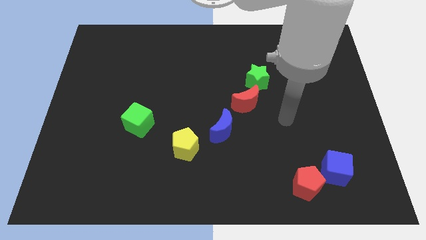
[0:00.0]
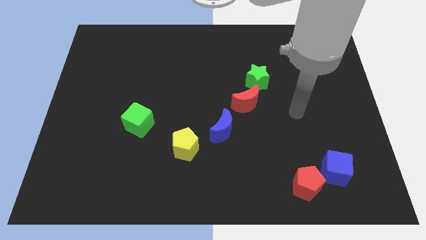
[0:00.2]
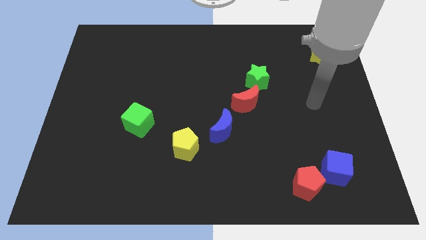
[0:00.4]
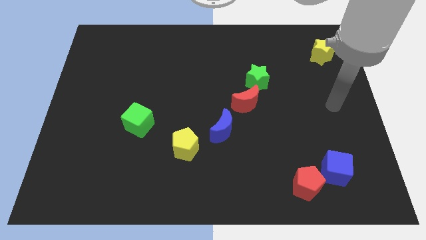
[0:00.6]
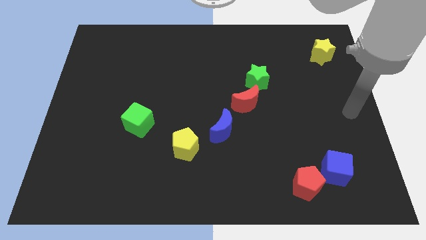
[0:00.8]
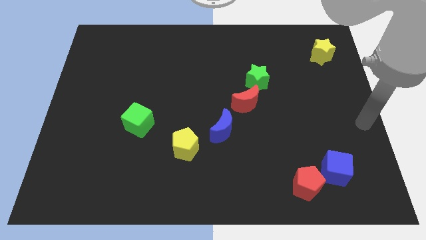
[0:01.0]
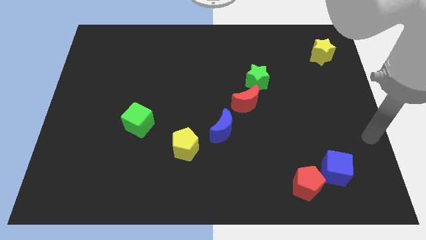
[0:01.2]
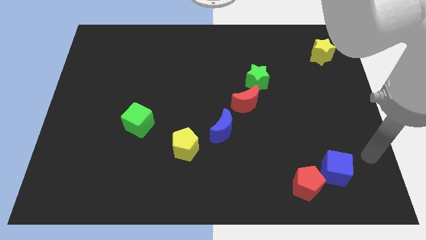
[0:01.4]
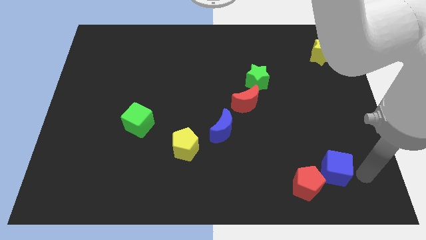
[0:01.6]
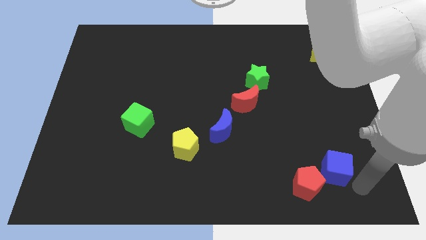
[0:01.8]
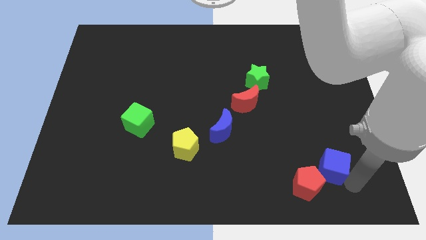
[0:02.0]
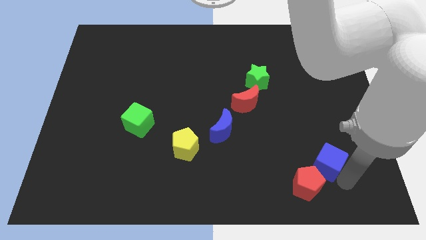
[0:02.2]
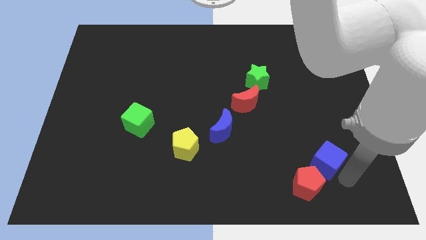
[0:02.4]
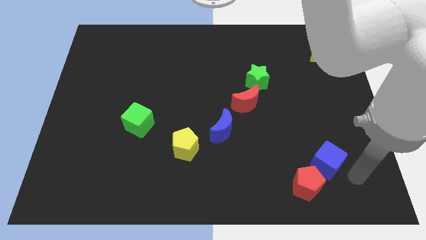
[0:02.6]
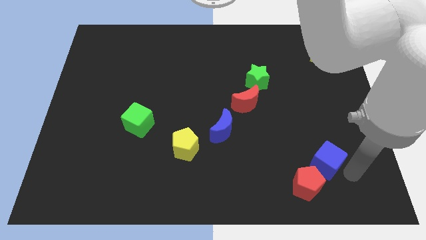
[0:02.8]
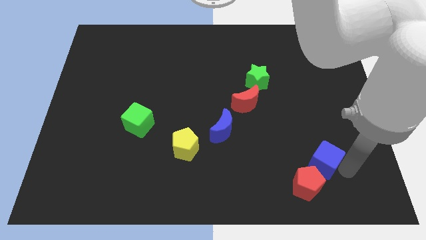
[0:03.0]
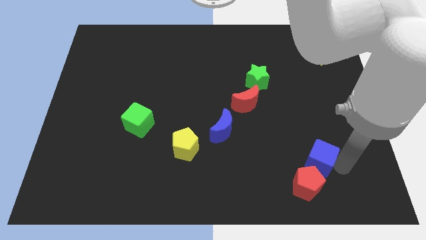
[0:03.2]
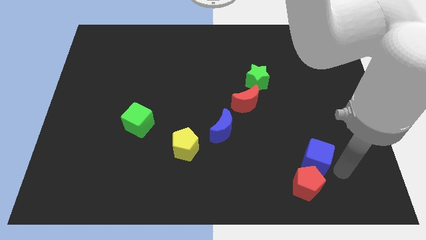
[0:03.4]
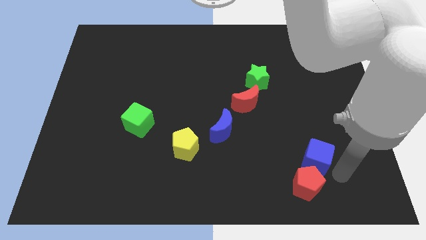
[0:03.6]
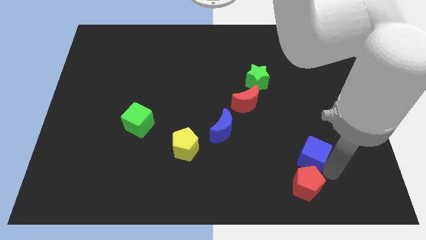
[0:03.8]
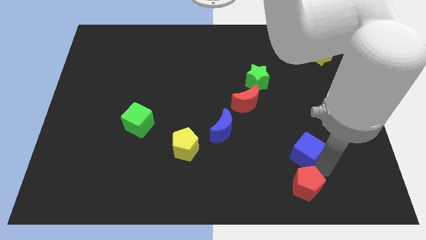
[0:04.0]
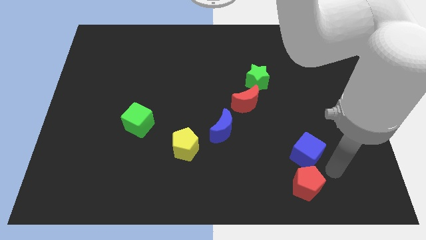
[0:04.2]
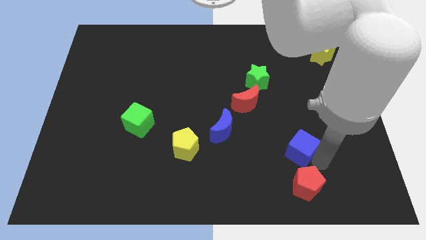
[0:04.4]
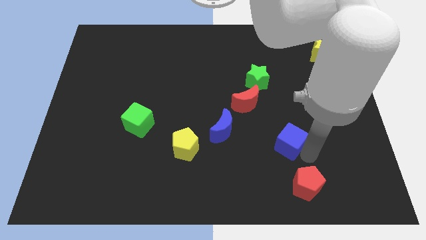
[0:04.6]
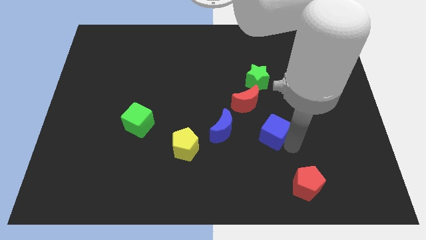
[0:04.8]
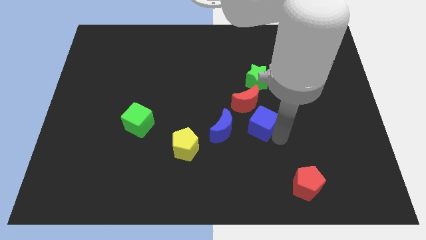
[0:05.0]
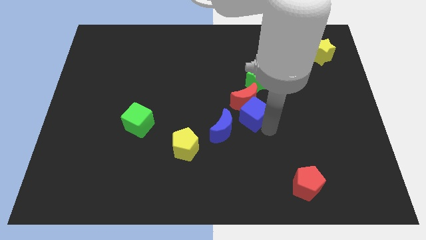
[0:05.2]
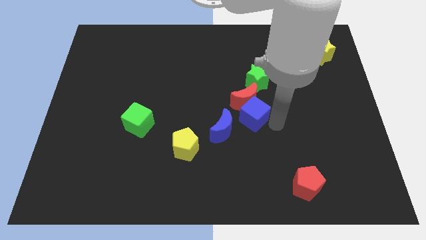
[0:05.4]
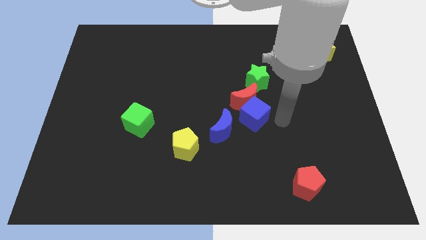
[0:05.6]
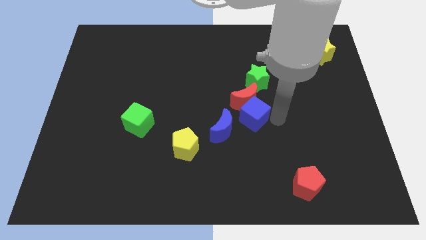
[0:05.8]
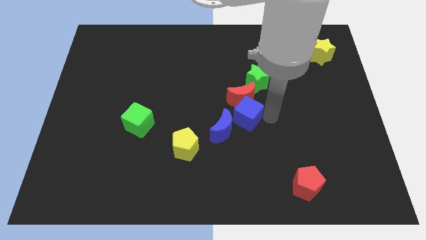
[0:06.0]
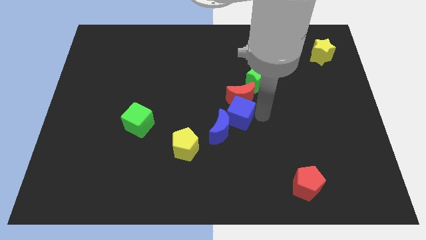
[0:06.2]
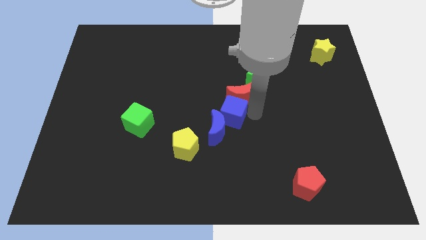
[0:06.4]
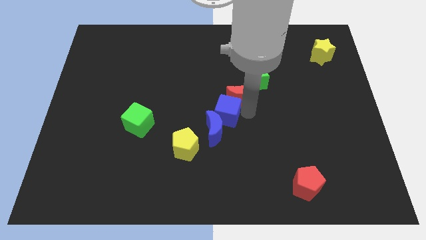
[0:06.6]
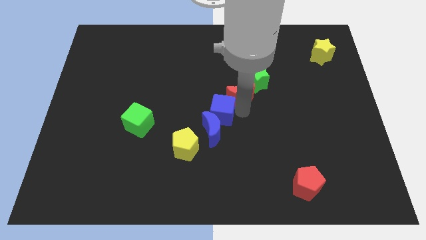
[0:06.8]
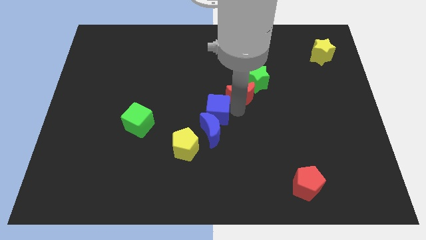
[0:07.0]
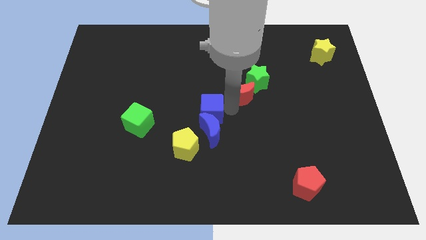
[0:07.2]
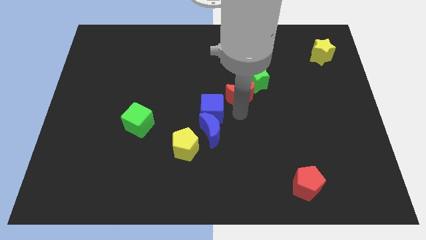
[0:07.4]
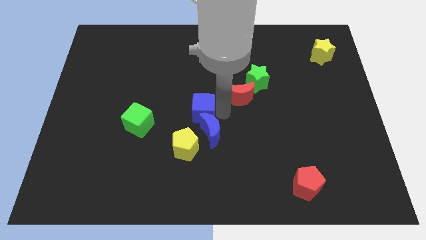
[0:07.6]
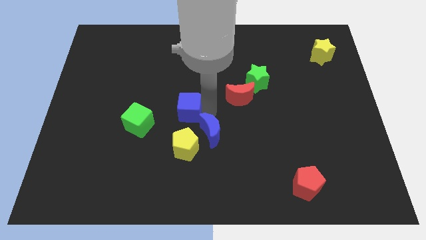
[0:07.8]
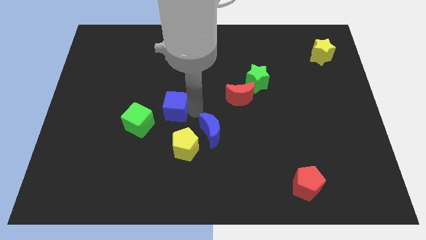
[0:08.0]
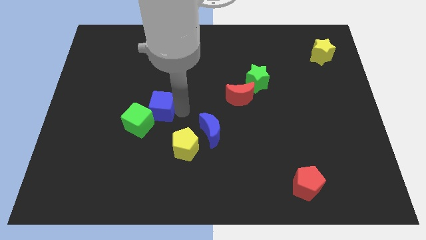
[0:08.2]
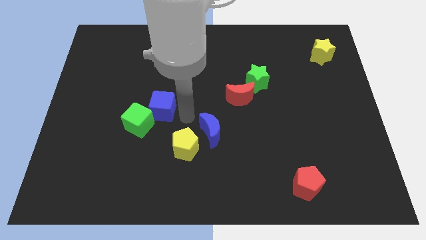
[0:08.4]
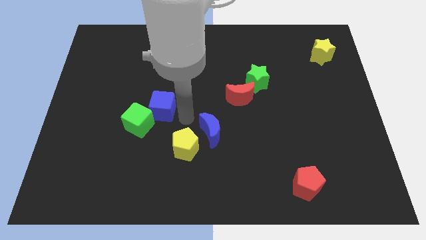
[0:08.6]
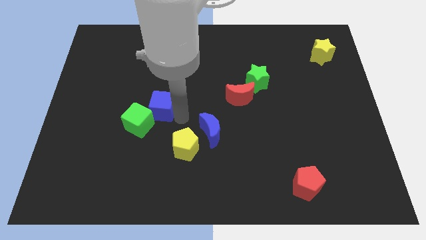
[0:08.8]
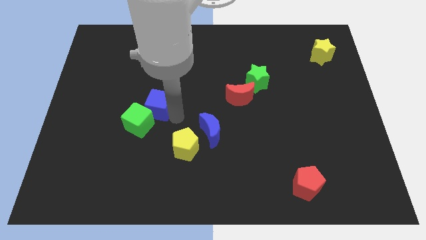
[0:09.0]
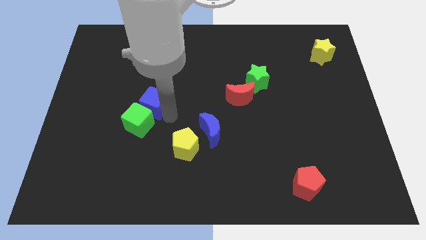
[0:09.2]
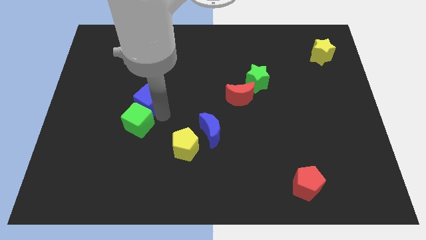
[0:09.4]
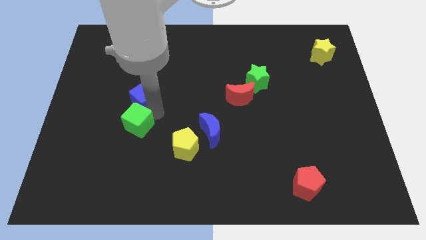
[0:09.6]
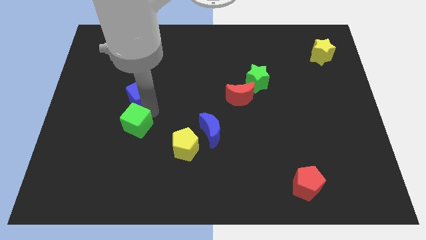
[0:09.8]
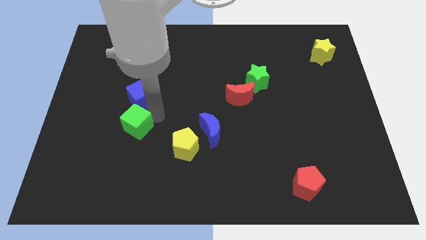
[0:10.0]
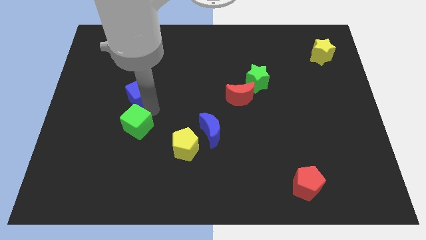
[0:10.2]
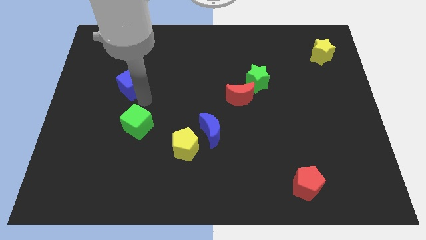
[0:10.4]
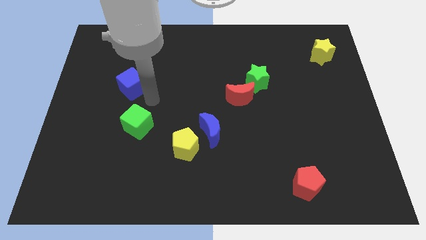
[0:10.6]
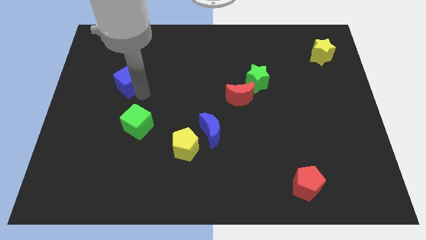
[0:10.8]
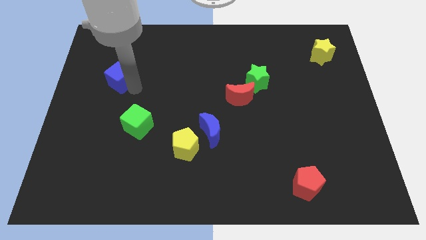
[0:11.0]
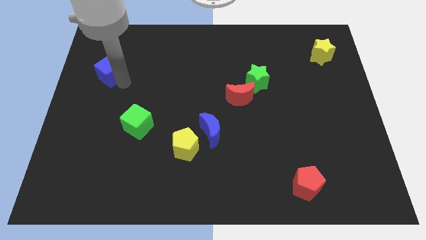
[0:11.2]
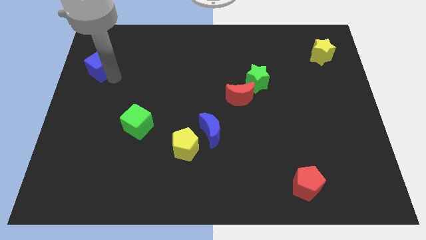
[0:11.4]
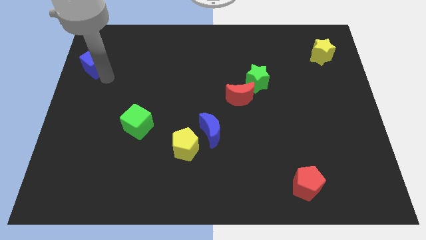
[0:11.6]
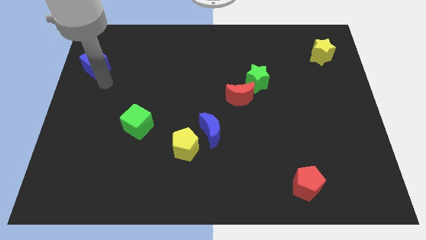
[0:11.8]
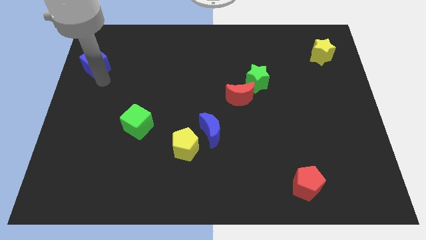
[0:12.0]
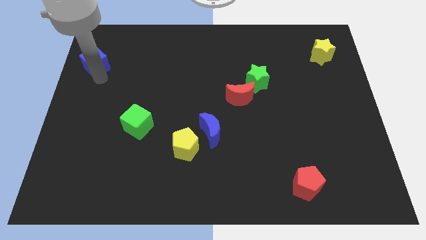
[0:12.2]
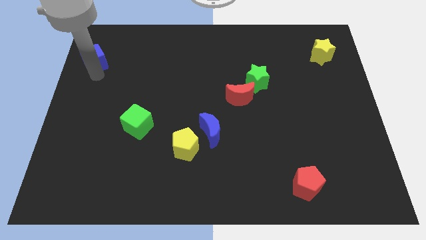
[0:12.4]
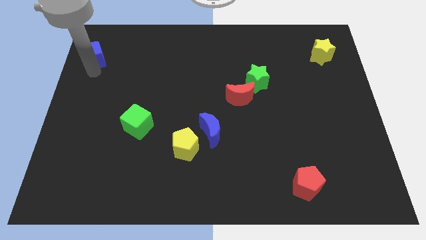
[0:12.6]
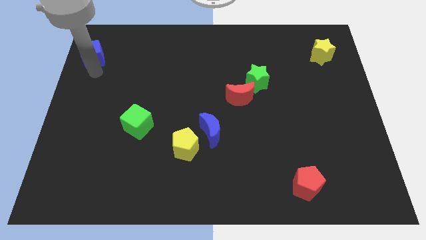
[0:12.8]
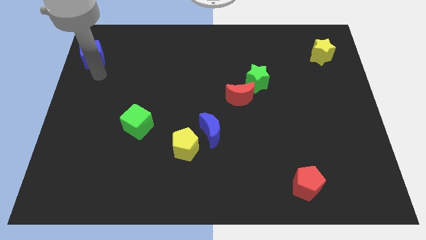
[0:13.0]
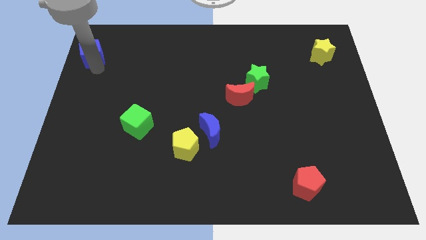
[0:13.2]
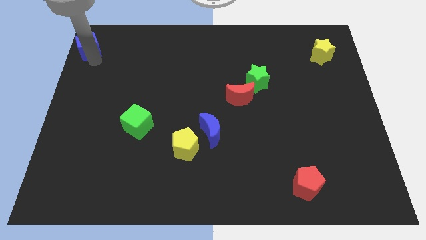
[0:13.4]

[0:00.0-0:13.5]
put the blue cube to the top left
